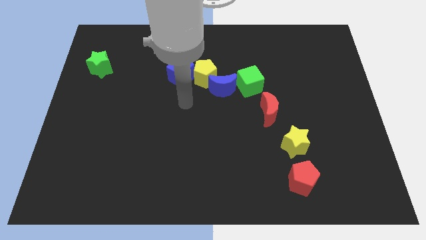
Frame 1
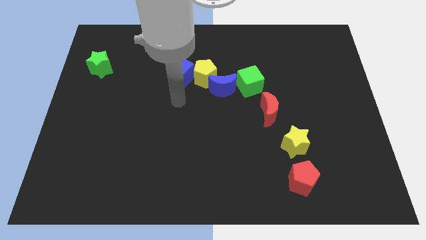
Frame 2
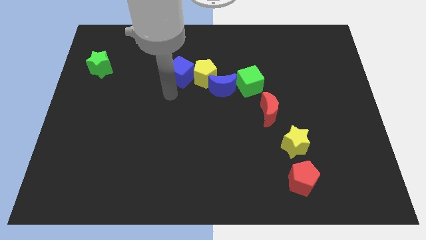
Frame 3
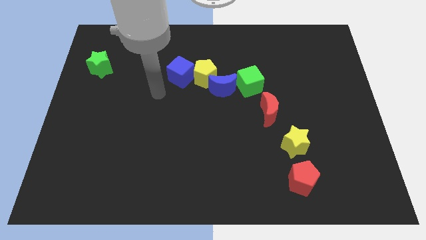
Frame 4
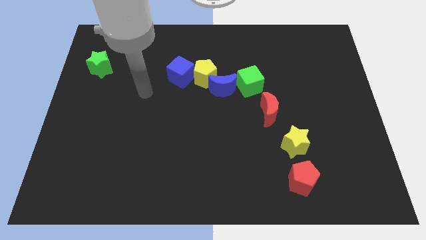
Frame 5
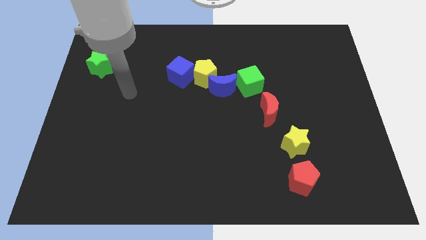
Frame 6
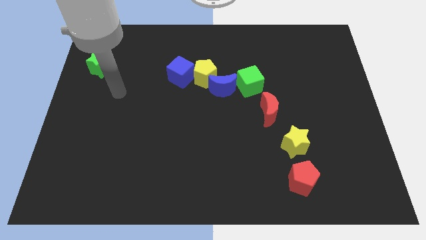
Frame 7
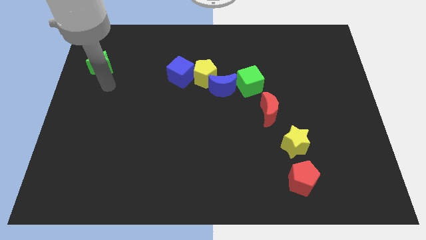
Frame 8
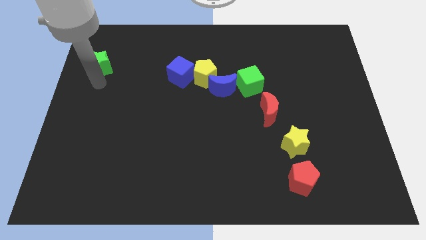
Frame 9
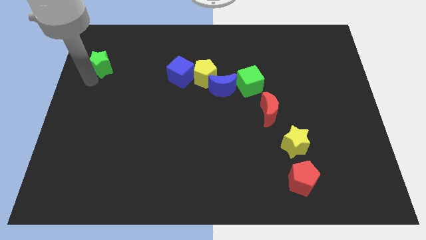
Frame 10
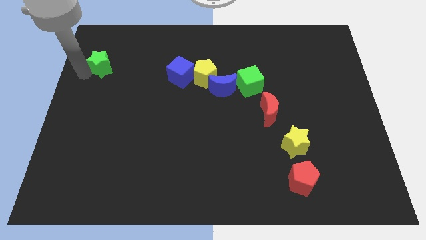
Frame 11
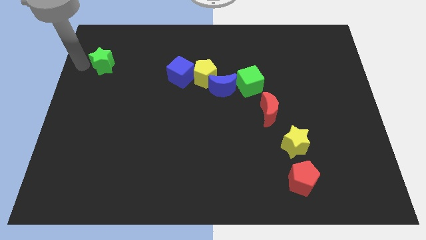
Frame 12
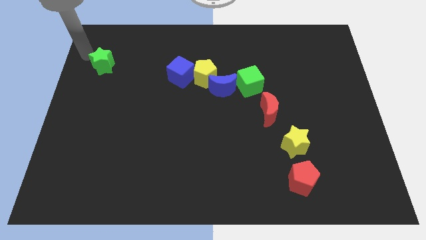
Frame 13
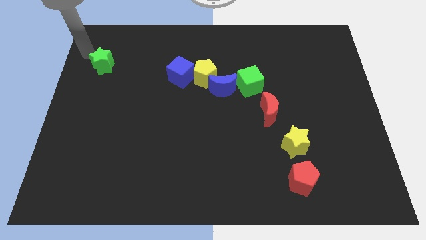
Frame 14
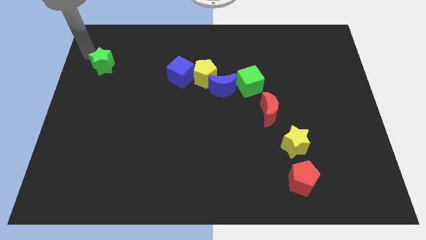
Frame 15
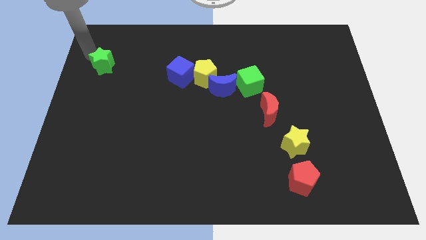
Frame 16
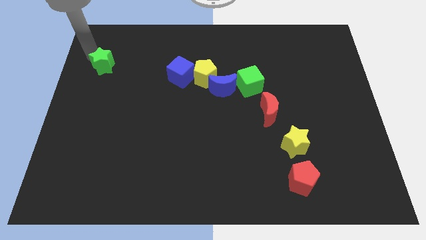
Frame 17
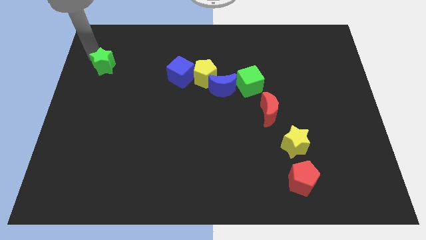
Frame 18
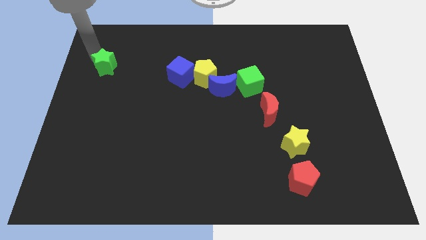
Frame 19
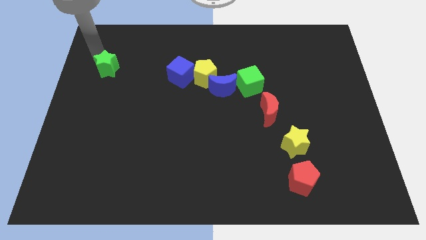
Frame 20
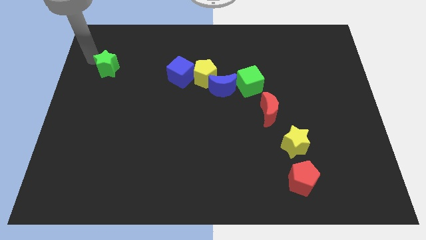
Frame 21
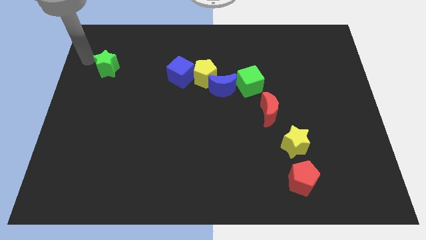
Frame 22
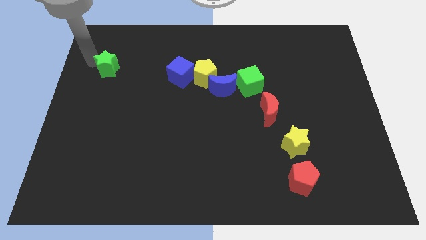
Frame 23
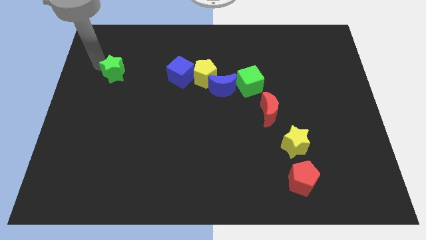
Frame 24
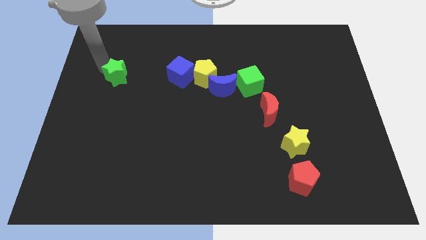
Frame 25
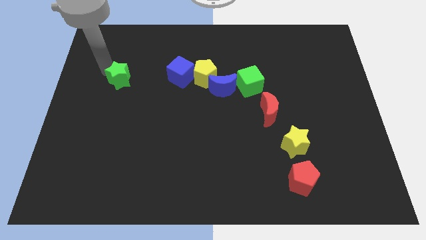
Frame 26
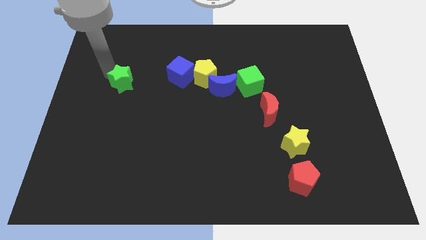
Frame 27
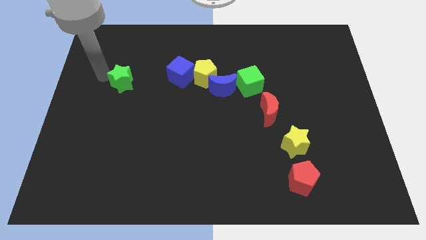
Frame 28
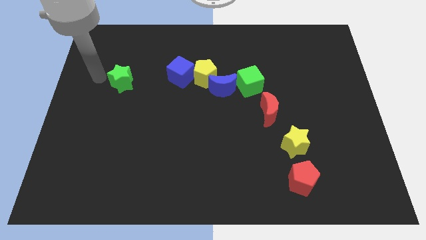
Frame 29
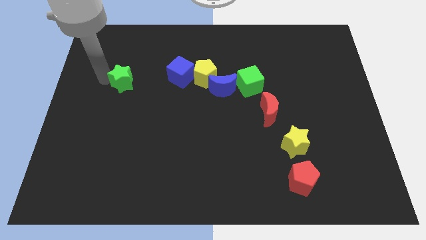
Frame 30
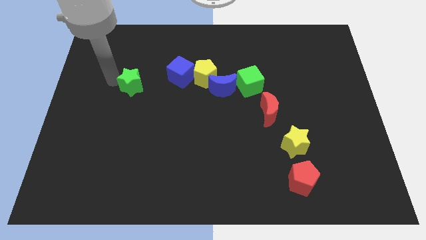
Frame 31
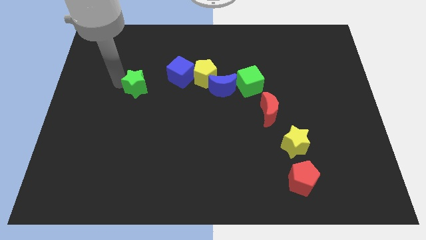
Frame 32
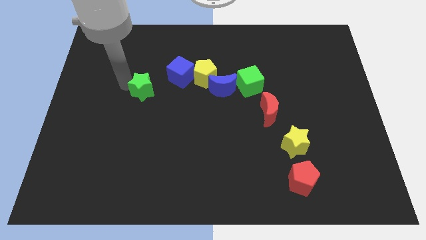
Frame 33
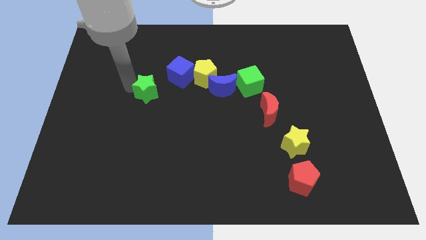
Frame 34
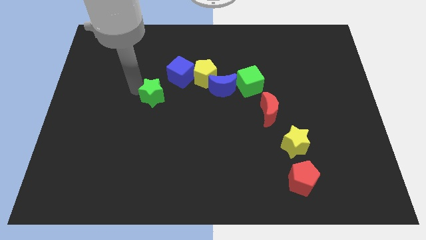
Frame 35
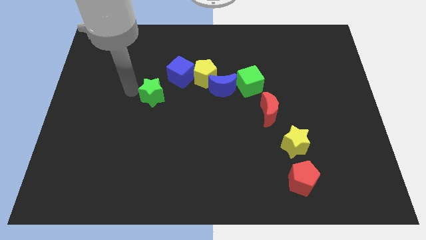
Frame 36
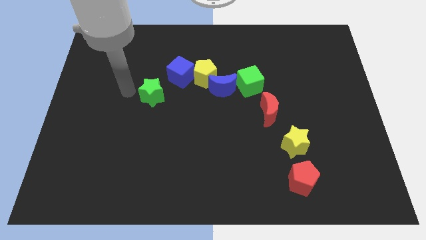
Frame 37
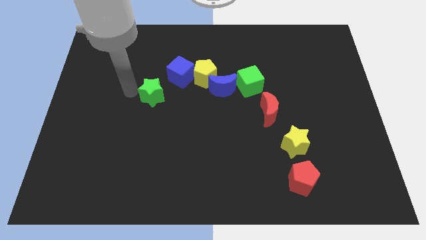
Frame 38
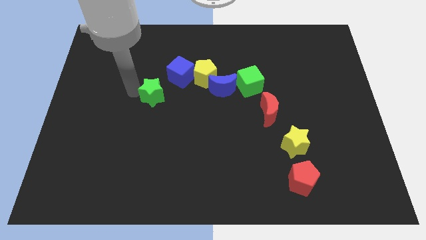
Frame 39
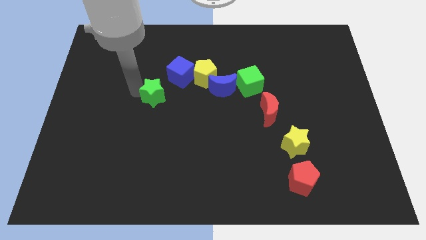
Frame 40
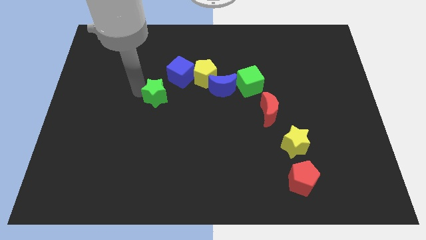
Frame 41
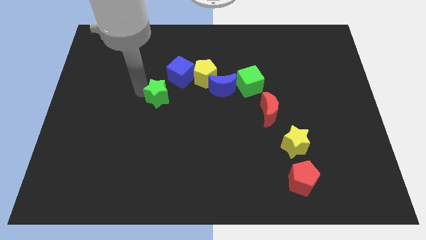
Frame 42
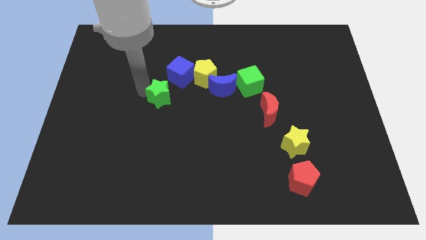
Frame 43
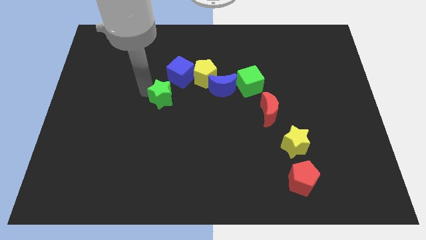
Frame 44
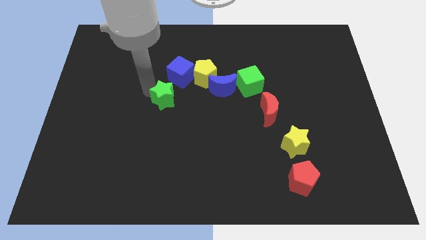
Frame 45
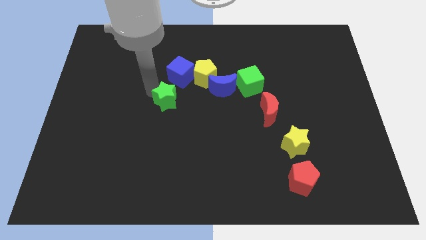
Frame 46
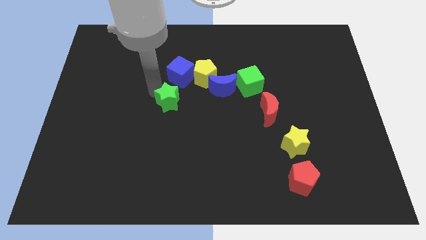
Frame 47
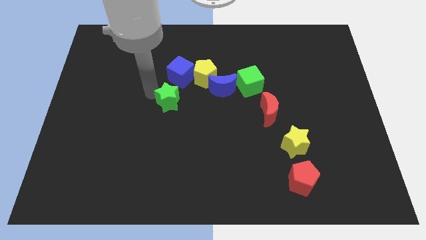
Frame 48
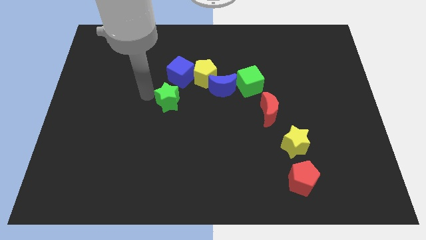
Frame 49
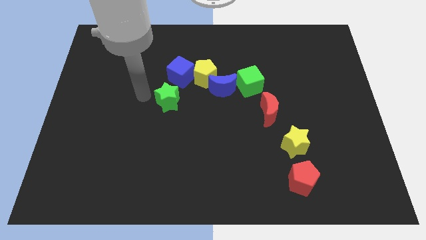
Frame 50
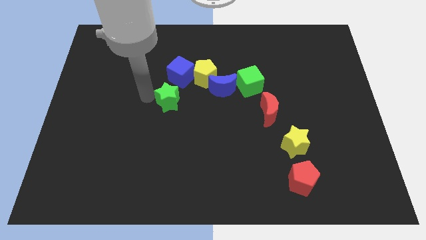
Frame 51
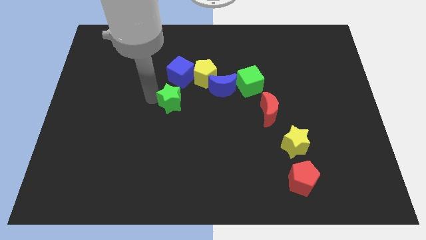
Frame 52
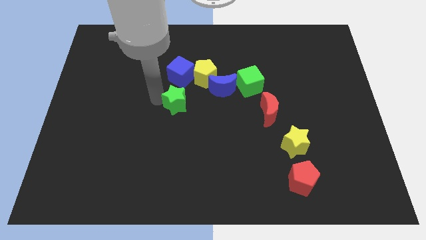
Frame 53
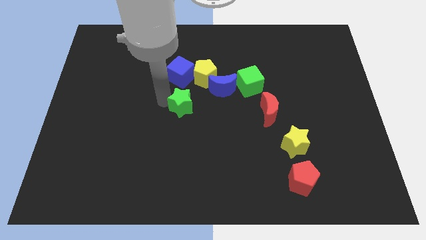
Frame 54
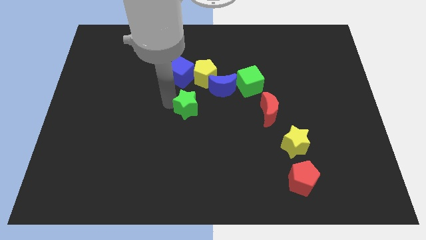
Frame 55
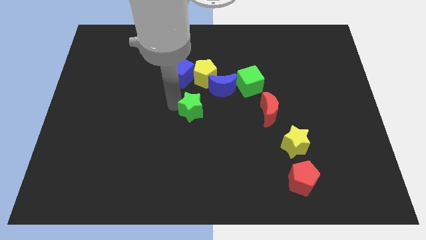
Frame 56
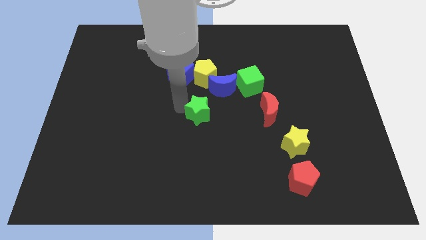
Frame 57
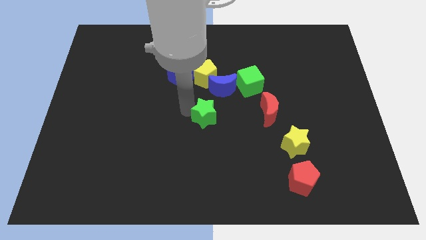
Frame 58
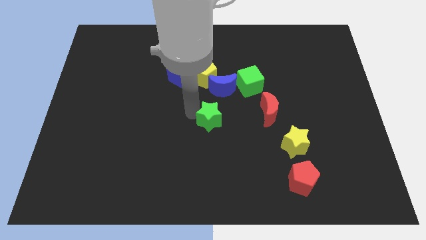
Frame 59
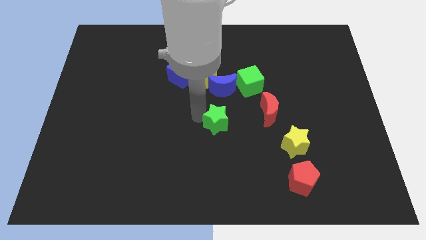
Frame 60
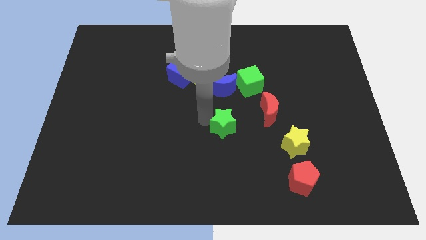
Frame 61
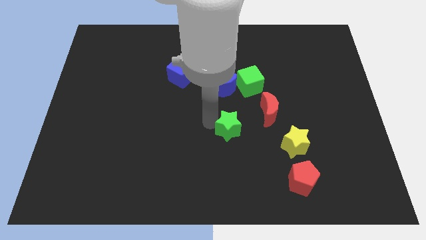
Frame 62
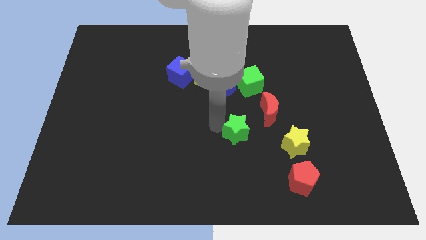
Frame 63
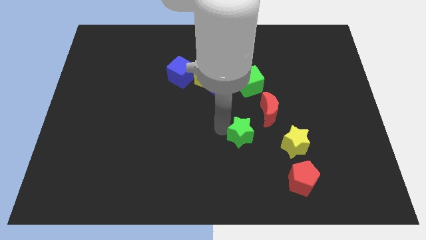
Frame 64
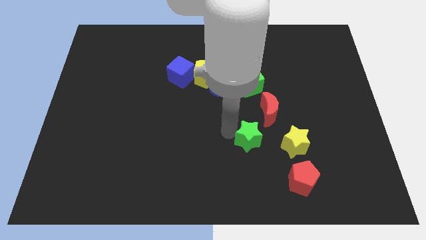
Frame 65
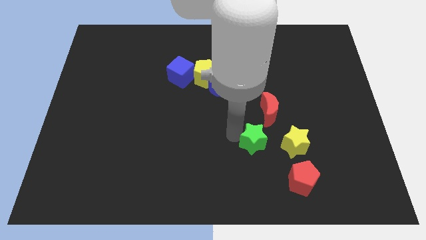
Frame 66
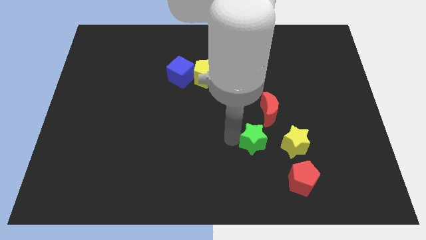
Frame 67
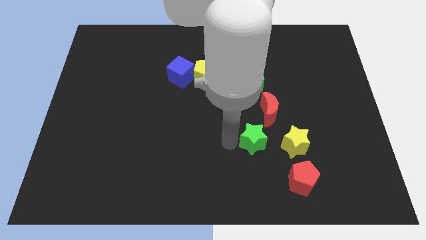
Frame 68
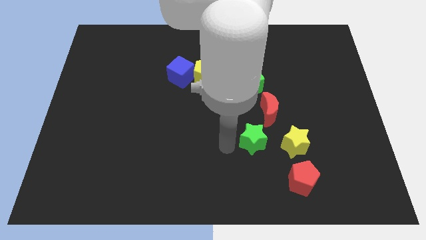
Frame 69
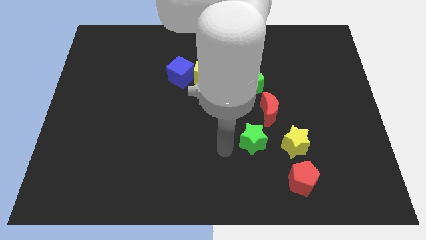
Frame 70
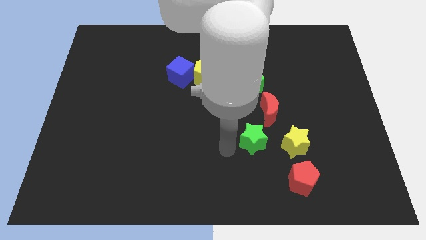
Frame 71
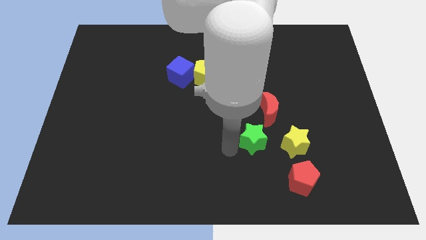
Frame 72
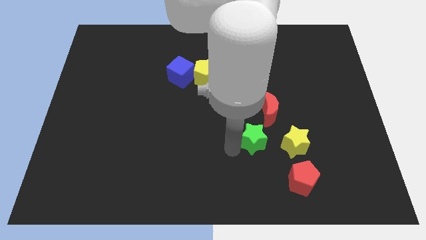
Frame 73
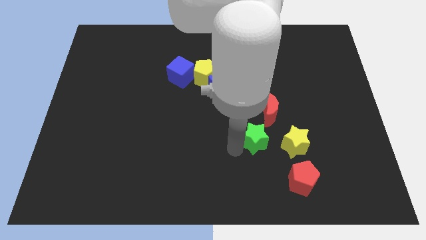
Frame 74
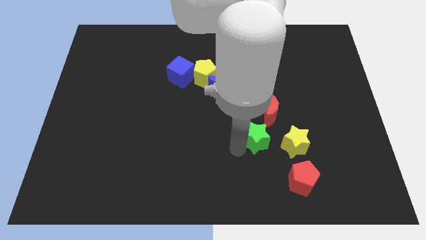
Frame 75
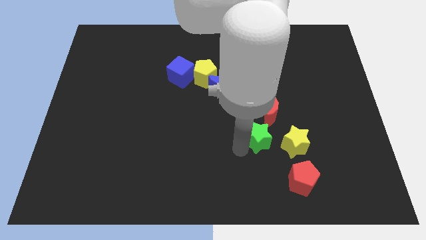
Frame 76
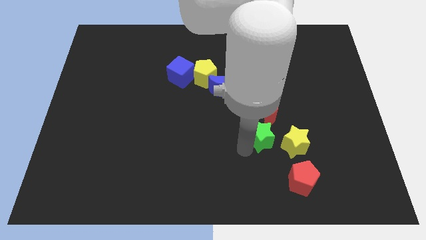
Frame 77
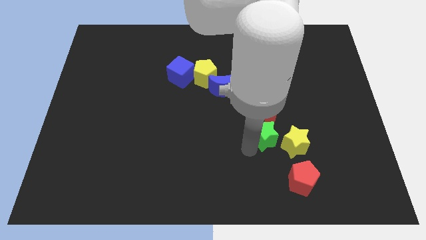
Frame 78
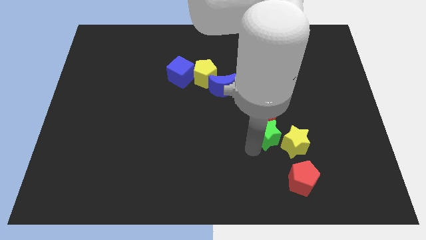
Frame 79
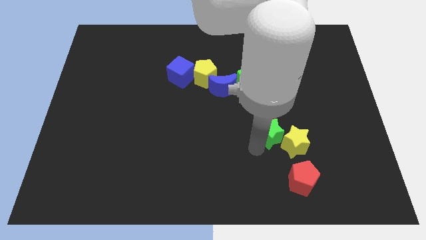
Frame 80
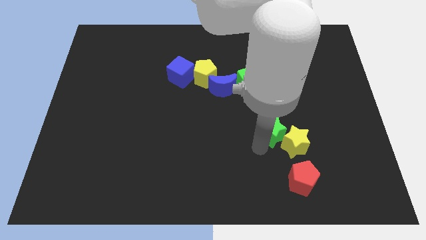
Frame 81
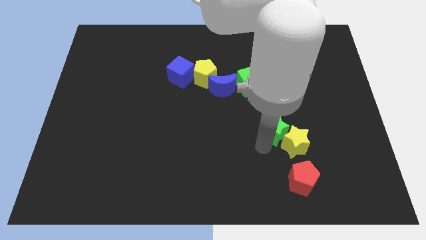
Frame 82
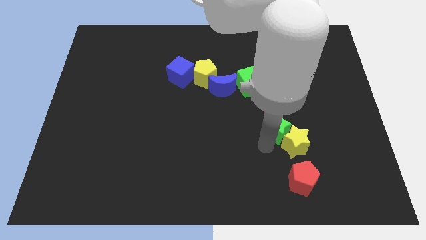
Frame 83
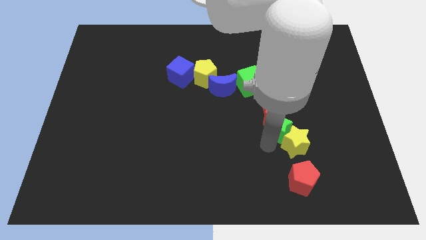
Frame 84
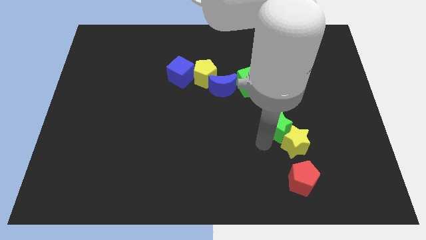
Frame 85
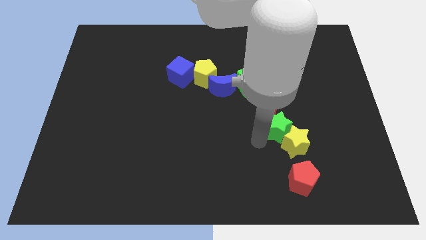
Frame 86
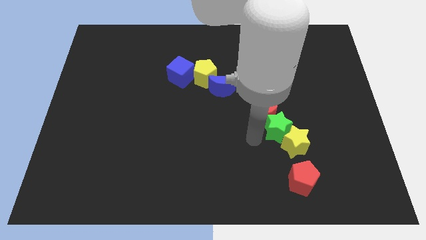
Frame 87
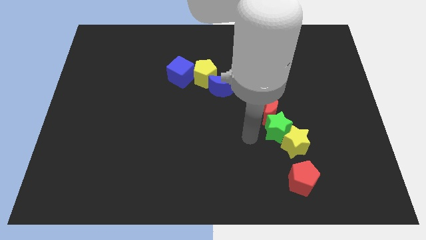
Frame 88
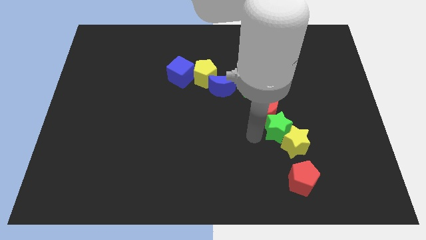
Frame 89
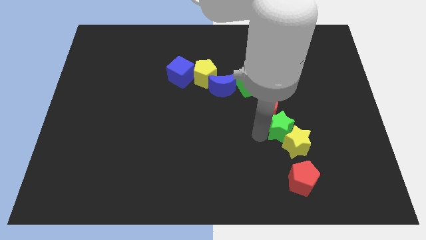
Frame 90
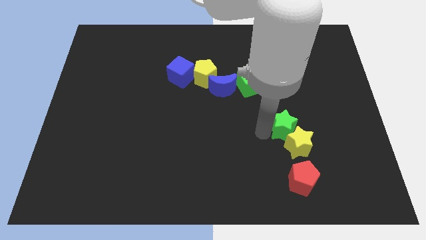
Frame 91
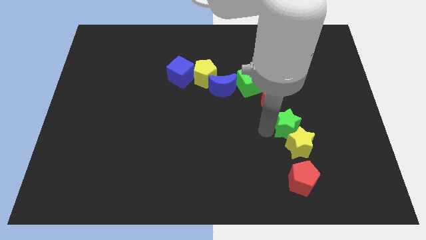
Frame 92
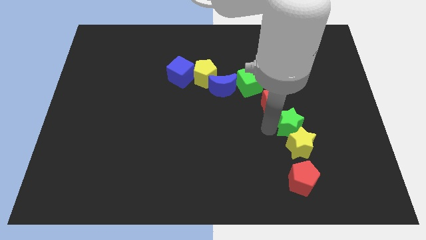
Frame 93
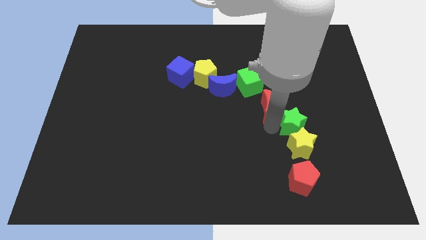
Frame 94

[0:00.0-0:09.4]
put the green star diagonally up and to the right of the yellow star
